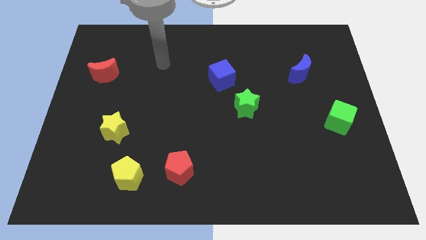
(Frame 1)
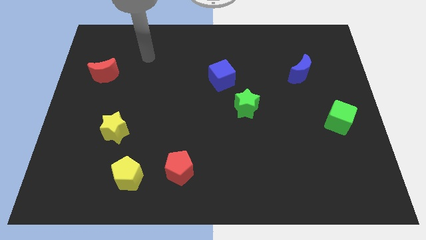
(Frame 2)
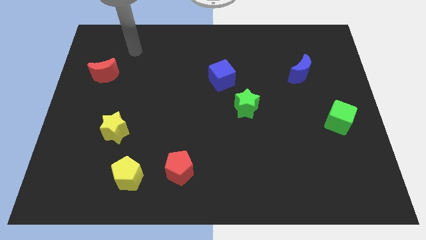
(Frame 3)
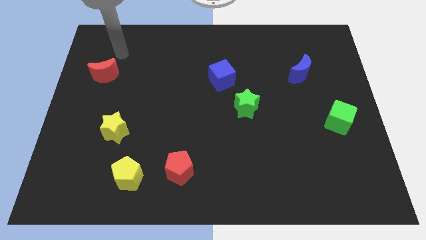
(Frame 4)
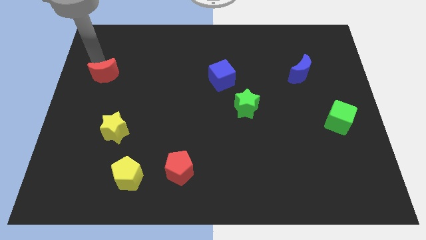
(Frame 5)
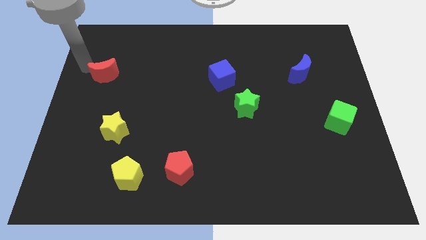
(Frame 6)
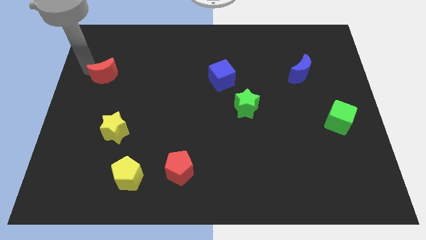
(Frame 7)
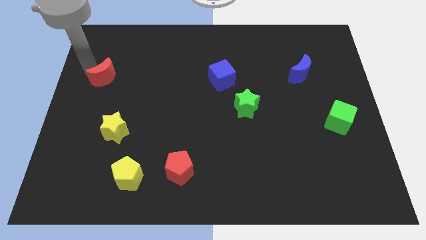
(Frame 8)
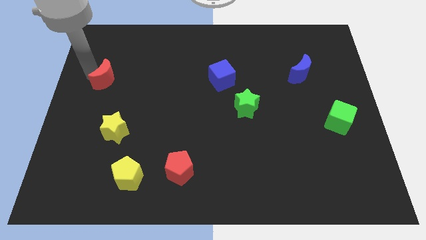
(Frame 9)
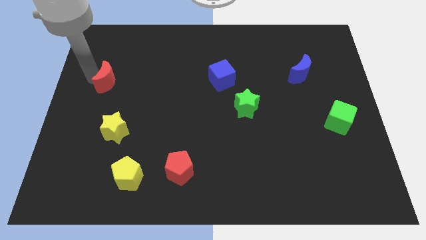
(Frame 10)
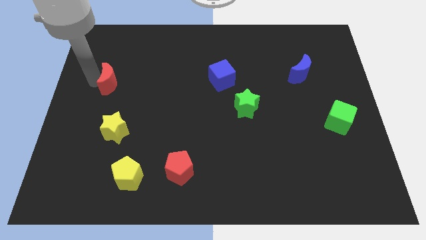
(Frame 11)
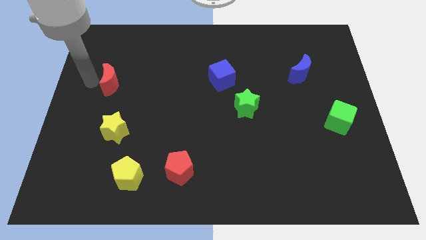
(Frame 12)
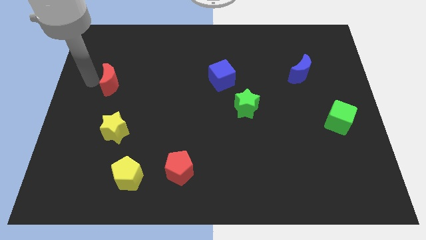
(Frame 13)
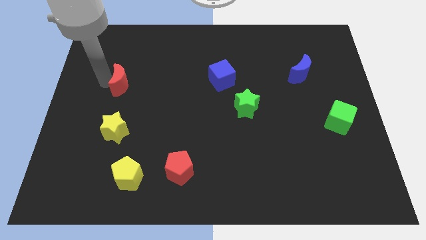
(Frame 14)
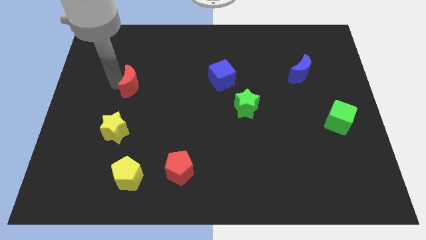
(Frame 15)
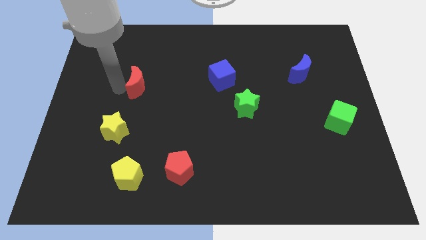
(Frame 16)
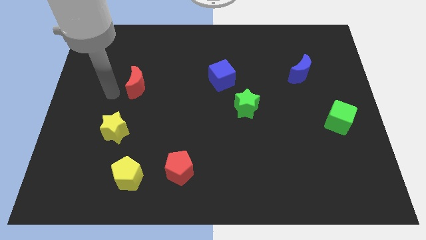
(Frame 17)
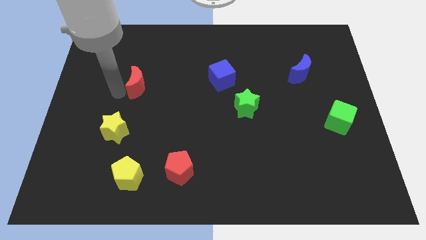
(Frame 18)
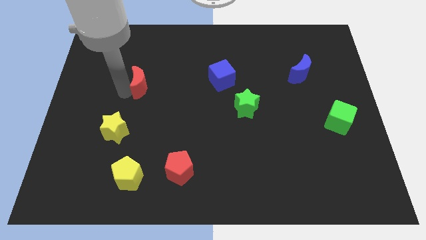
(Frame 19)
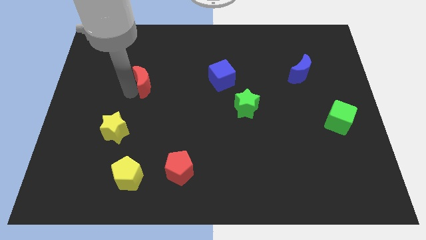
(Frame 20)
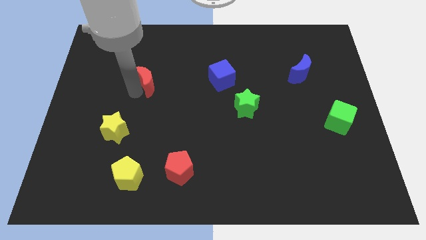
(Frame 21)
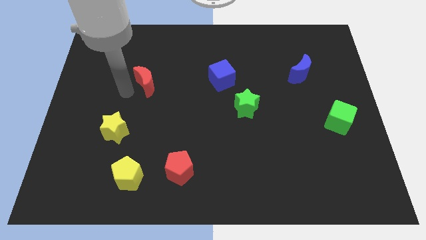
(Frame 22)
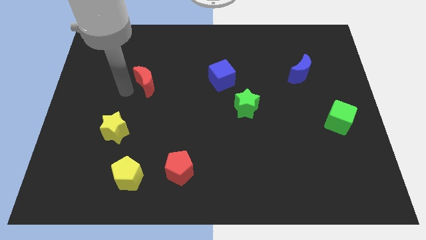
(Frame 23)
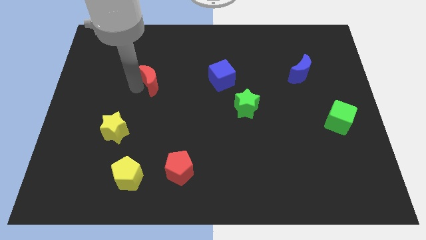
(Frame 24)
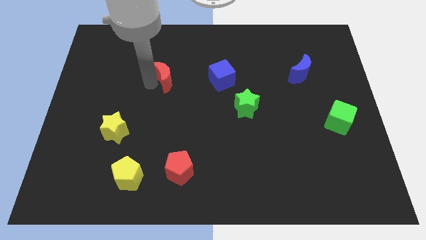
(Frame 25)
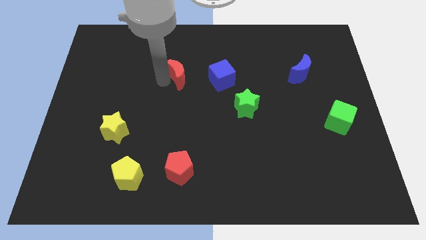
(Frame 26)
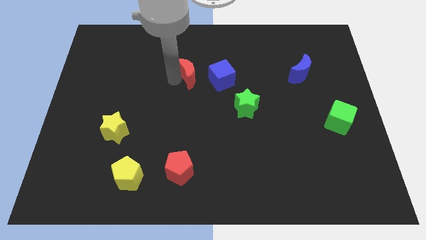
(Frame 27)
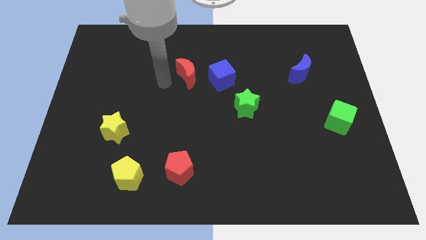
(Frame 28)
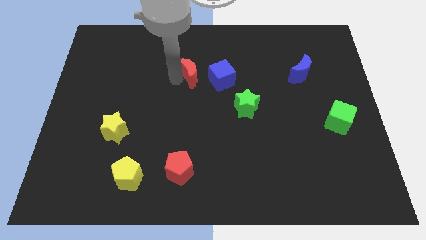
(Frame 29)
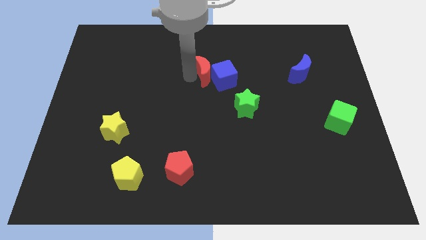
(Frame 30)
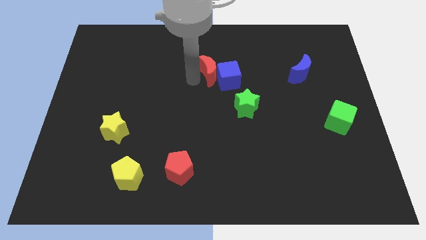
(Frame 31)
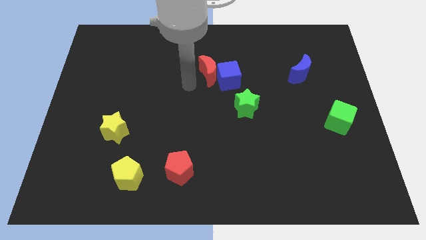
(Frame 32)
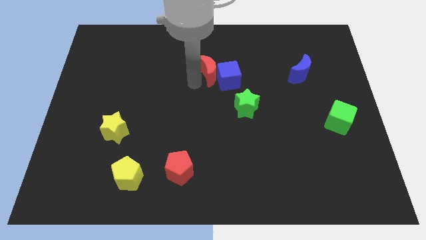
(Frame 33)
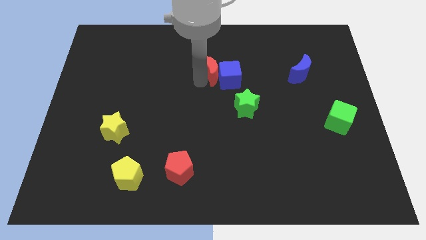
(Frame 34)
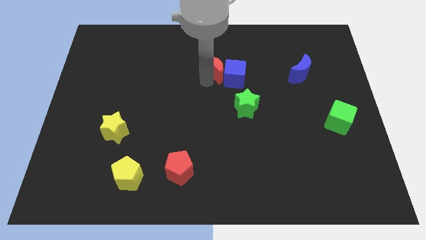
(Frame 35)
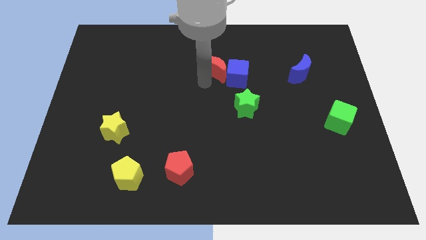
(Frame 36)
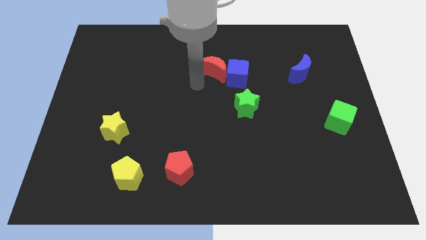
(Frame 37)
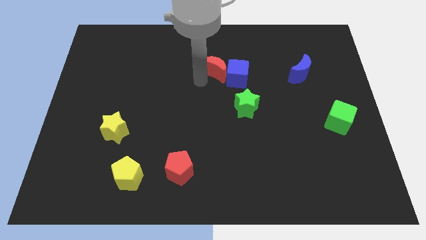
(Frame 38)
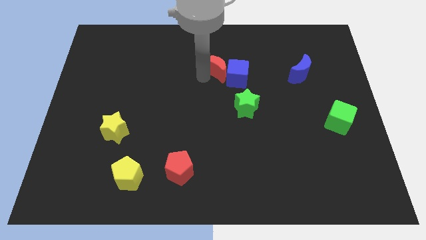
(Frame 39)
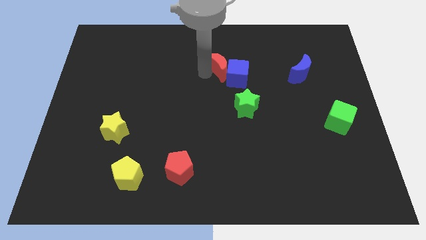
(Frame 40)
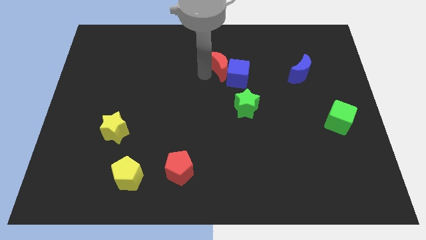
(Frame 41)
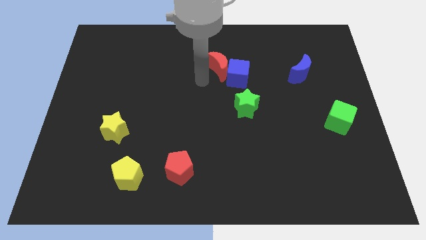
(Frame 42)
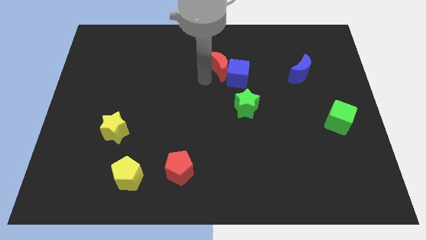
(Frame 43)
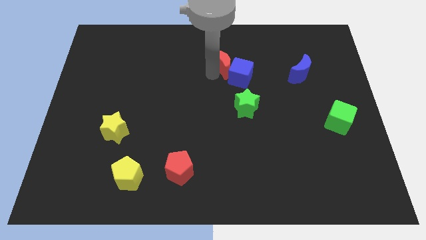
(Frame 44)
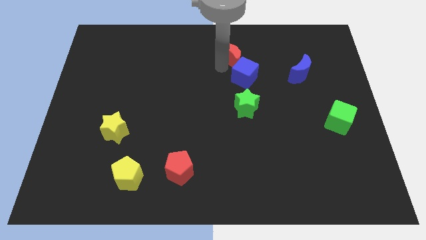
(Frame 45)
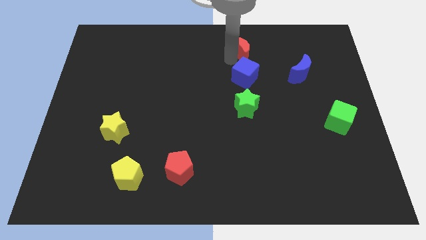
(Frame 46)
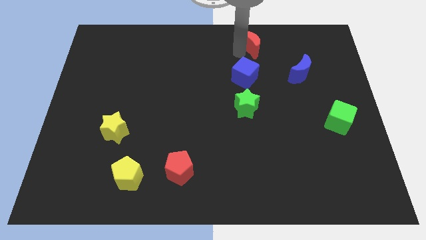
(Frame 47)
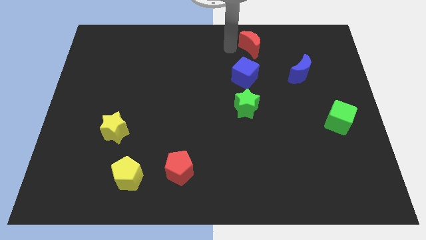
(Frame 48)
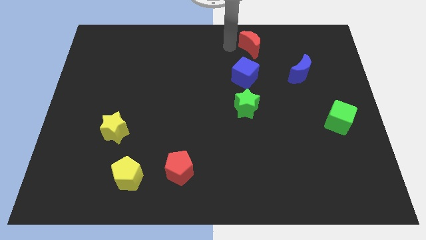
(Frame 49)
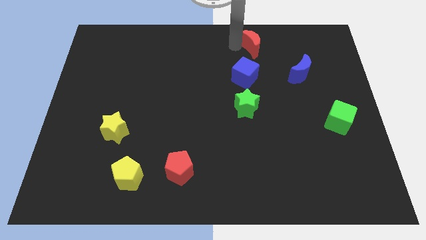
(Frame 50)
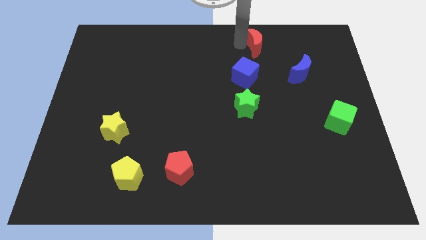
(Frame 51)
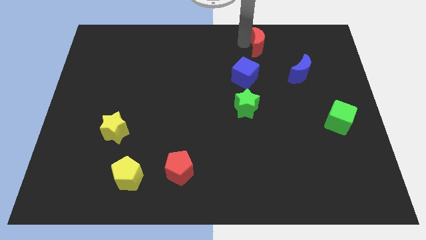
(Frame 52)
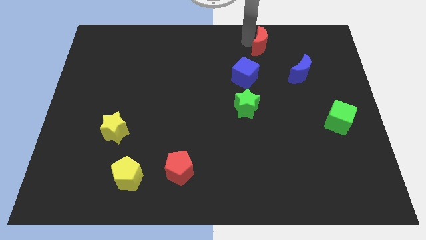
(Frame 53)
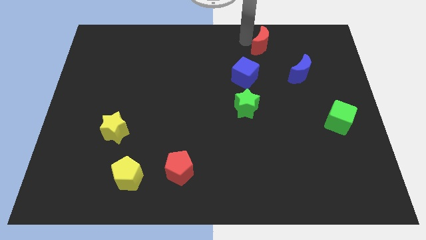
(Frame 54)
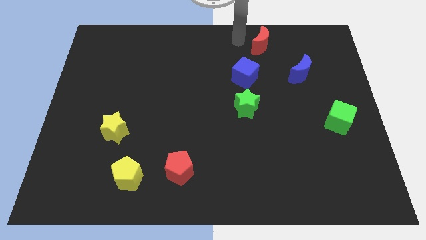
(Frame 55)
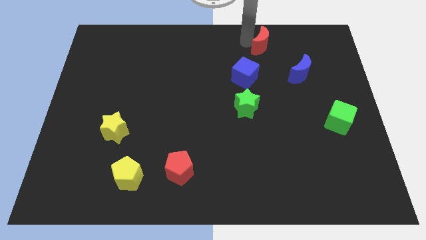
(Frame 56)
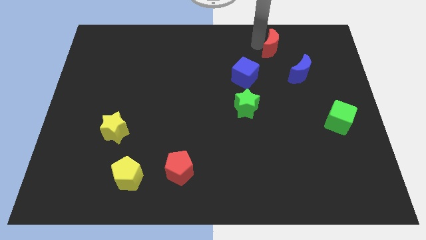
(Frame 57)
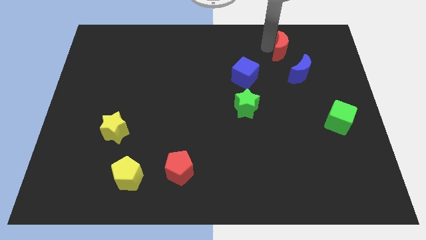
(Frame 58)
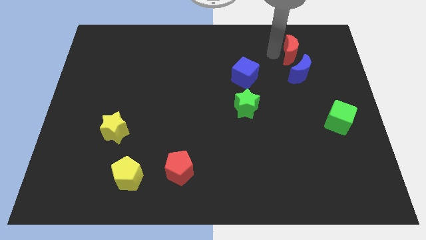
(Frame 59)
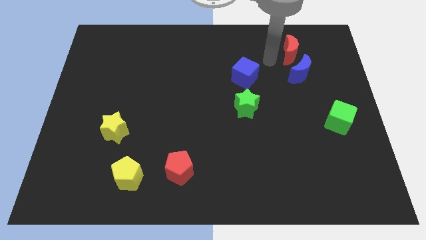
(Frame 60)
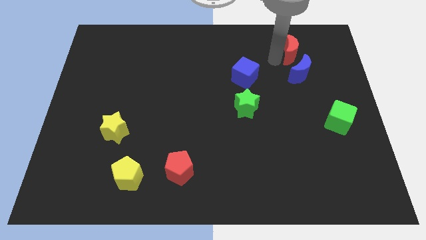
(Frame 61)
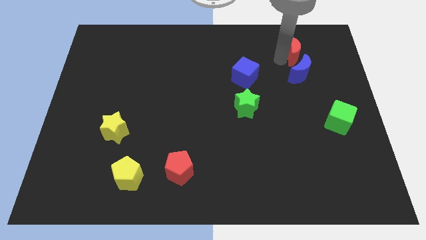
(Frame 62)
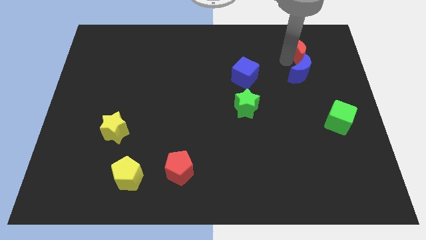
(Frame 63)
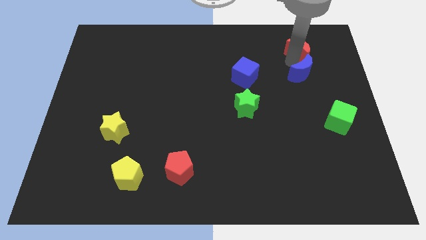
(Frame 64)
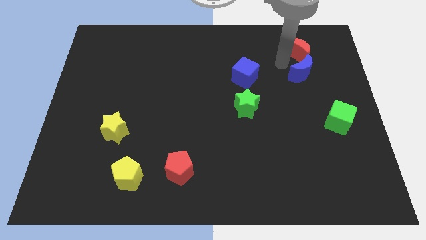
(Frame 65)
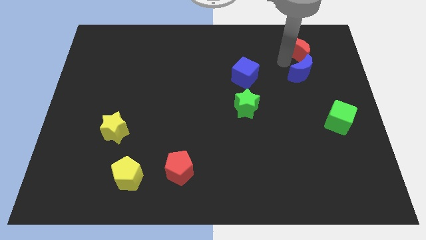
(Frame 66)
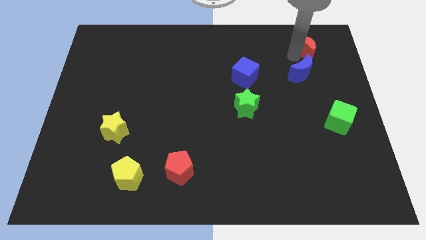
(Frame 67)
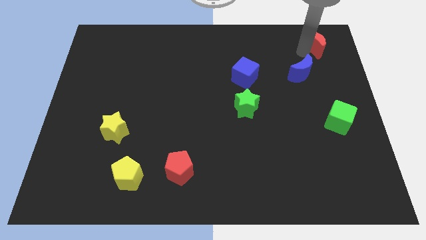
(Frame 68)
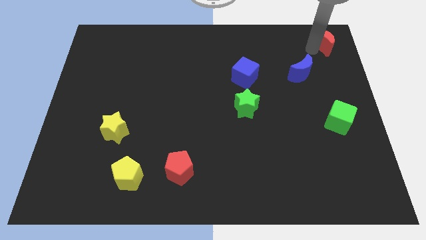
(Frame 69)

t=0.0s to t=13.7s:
move the red moon to the top right of the board

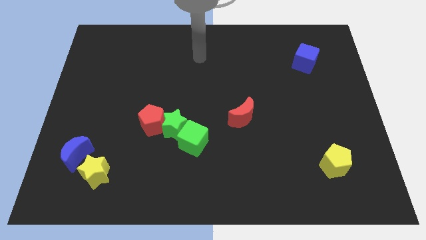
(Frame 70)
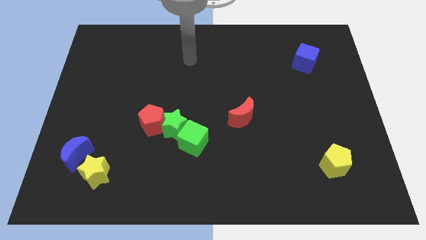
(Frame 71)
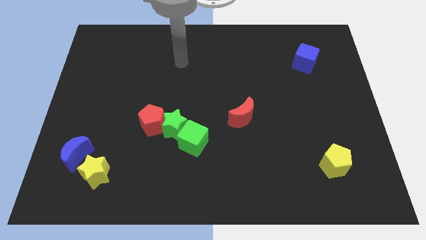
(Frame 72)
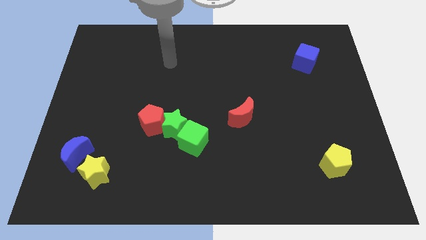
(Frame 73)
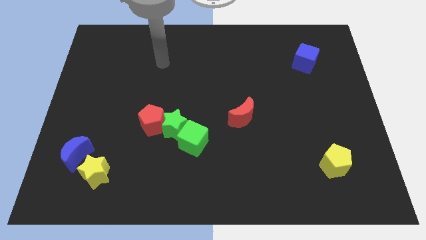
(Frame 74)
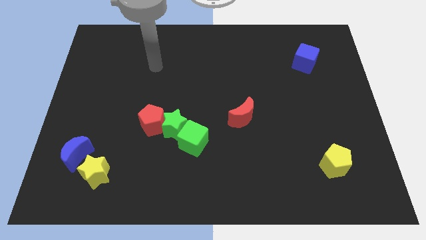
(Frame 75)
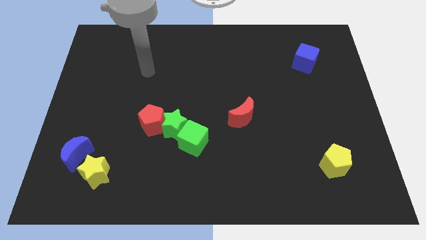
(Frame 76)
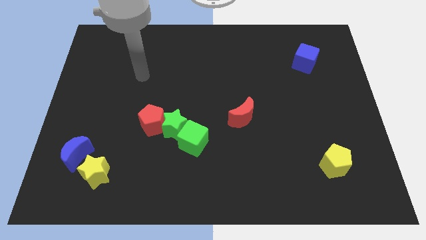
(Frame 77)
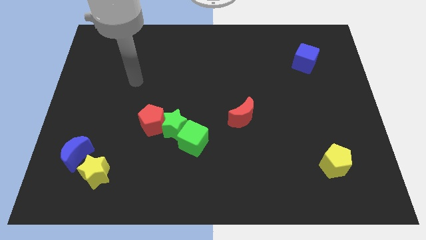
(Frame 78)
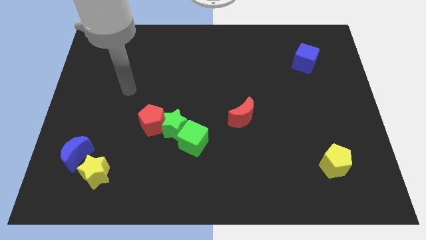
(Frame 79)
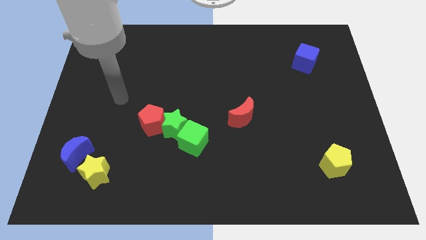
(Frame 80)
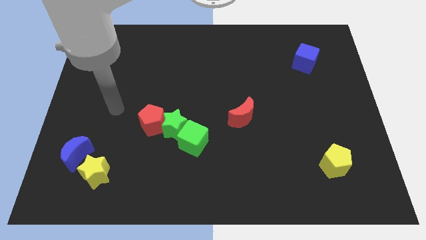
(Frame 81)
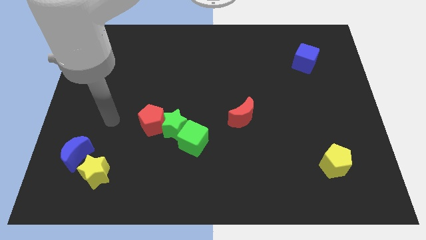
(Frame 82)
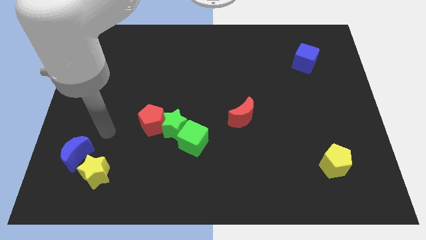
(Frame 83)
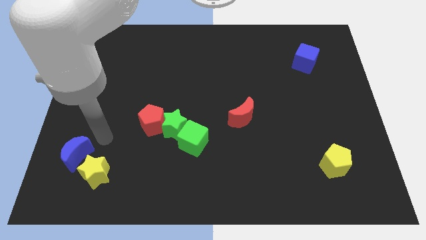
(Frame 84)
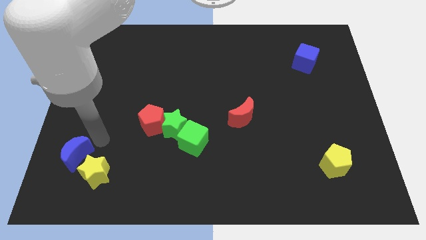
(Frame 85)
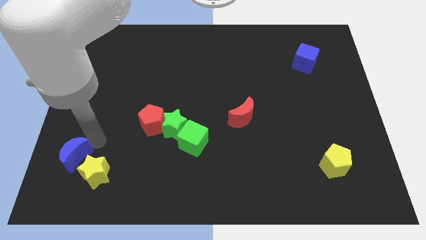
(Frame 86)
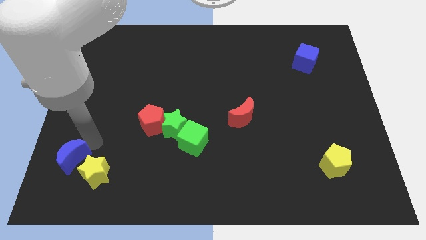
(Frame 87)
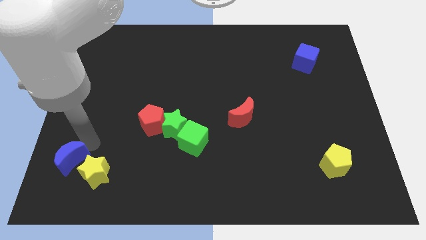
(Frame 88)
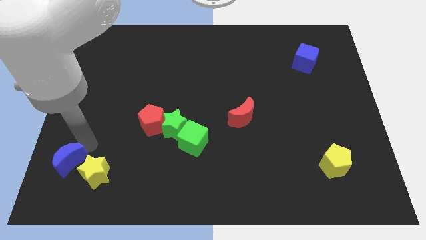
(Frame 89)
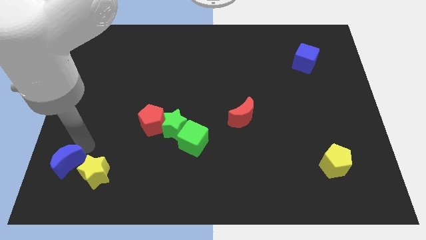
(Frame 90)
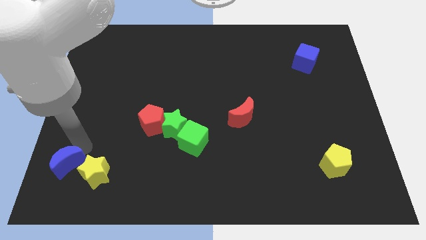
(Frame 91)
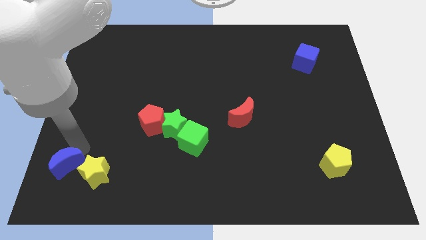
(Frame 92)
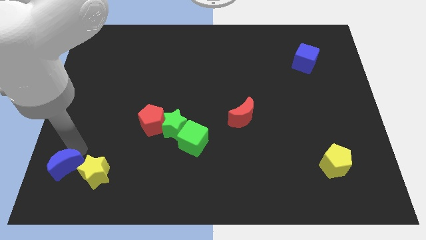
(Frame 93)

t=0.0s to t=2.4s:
slide the blue moon to the bottom left of the board
